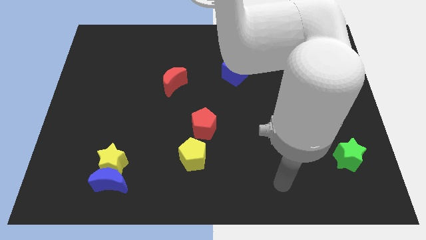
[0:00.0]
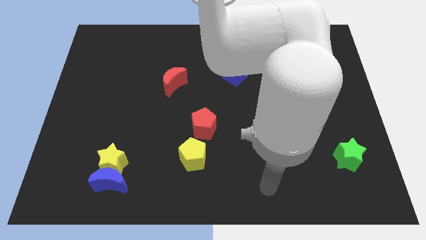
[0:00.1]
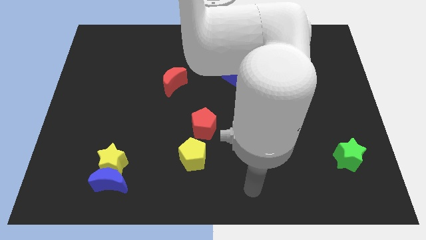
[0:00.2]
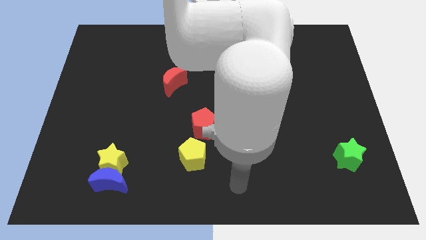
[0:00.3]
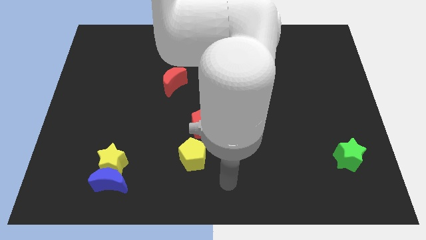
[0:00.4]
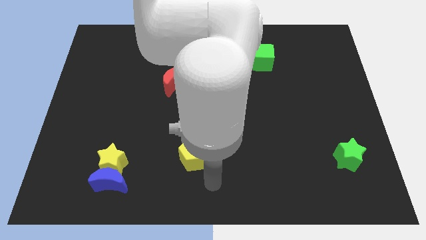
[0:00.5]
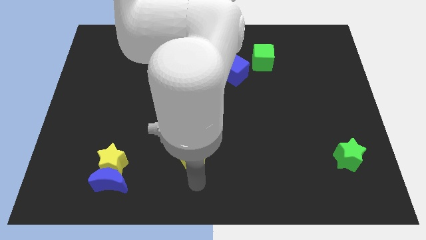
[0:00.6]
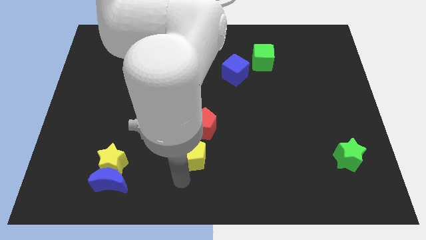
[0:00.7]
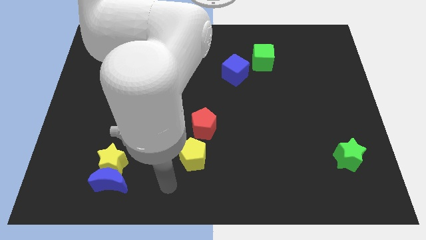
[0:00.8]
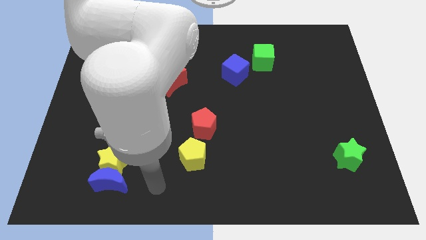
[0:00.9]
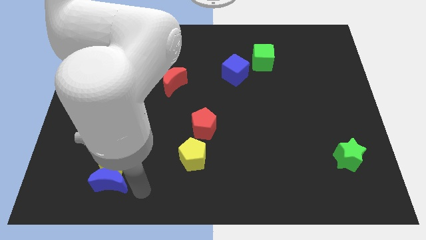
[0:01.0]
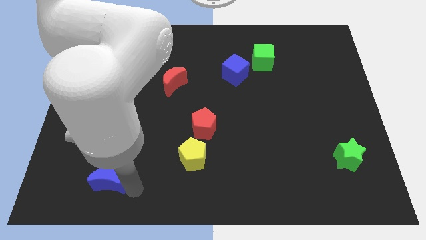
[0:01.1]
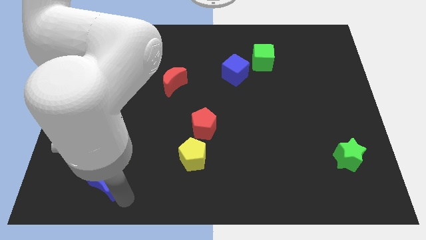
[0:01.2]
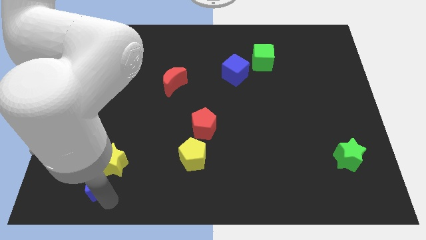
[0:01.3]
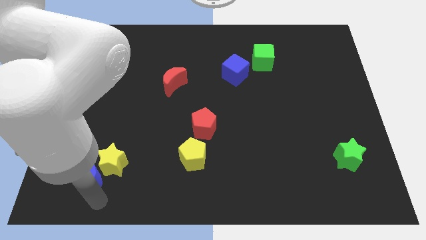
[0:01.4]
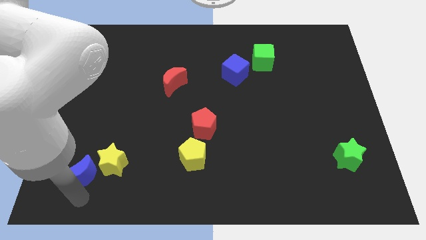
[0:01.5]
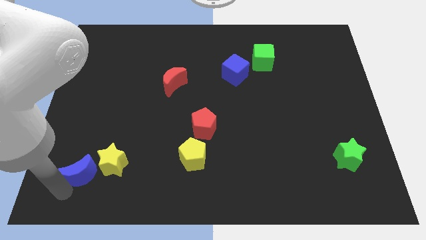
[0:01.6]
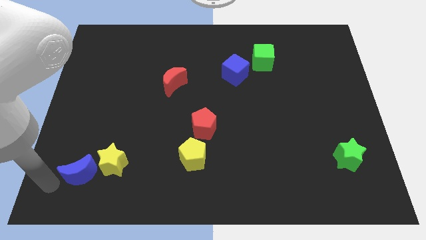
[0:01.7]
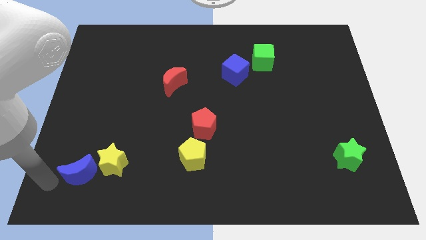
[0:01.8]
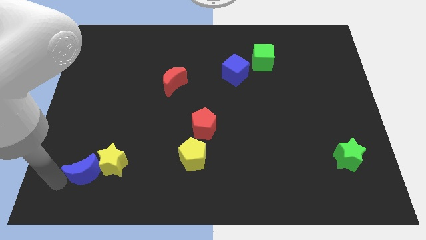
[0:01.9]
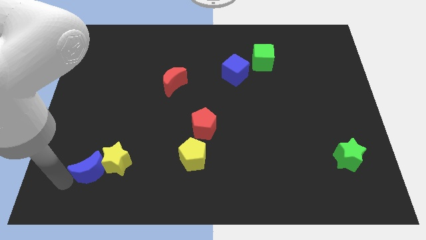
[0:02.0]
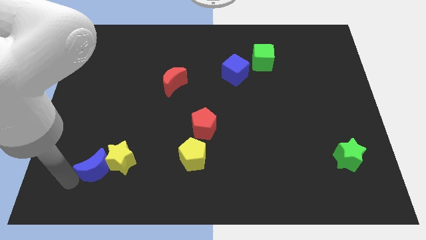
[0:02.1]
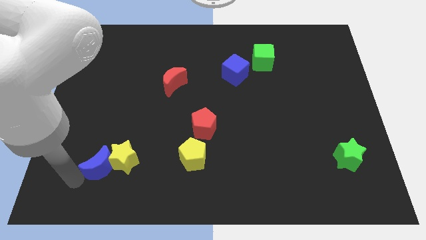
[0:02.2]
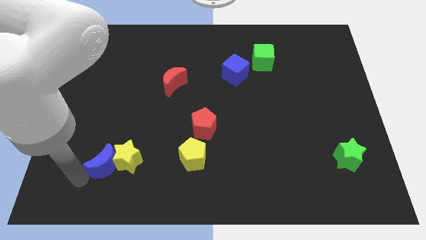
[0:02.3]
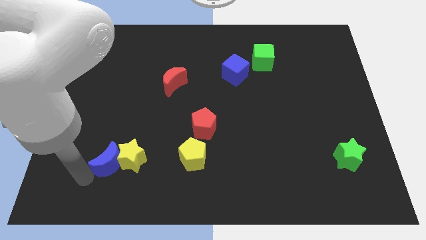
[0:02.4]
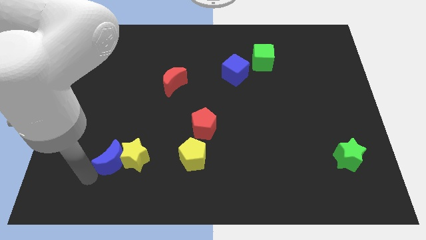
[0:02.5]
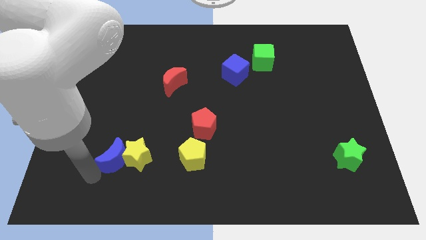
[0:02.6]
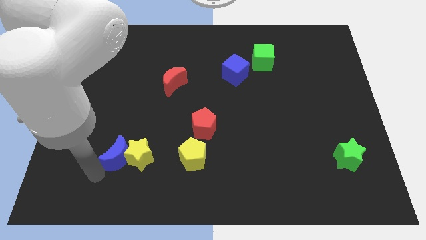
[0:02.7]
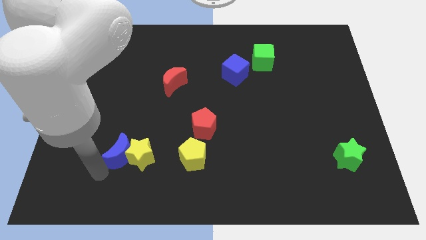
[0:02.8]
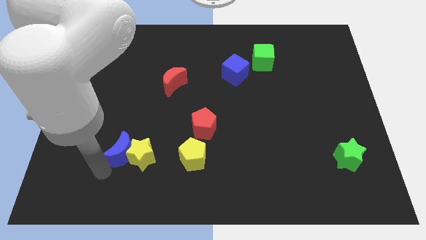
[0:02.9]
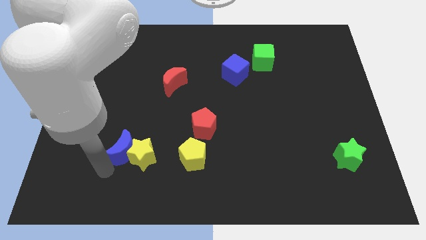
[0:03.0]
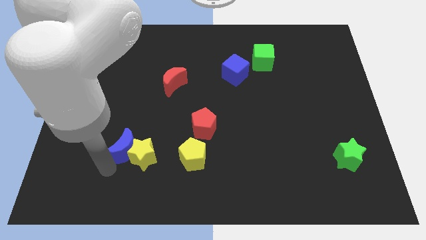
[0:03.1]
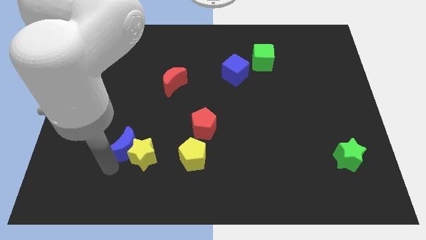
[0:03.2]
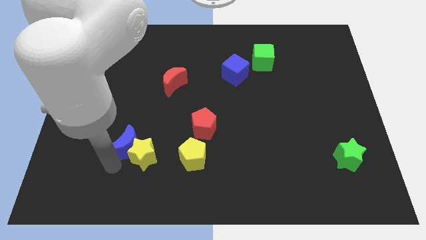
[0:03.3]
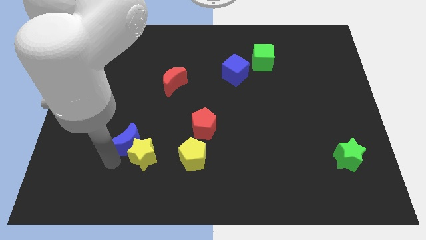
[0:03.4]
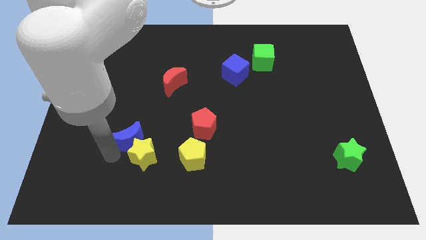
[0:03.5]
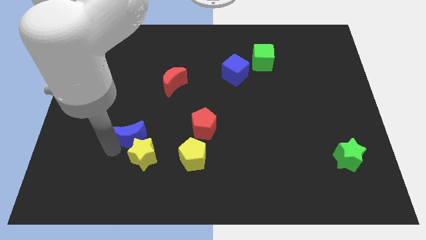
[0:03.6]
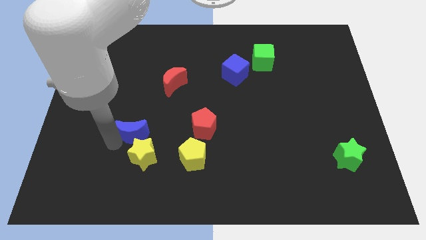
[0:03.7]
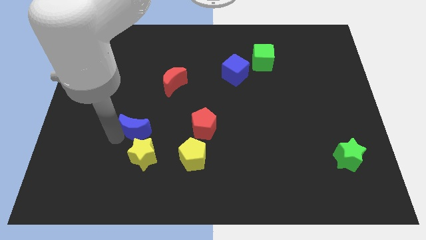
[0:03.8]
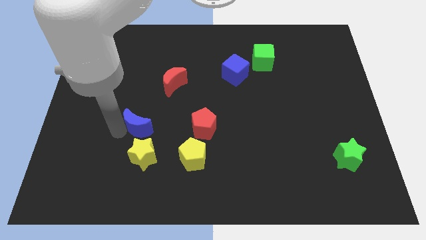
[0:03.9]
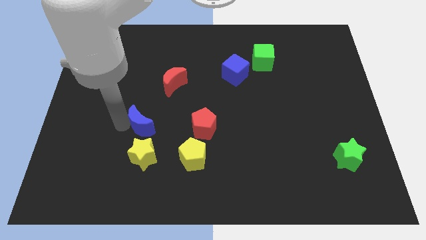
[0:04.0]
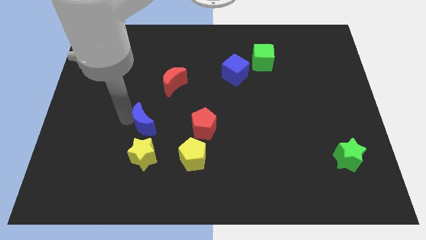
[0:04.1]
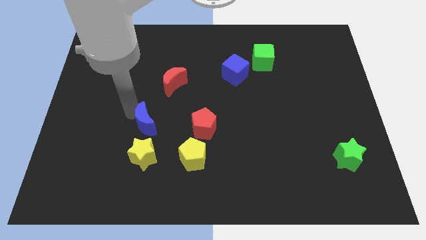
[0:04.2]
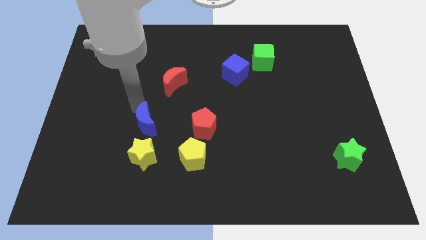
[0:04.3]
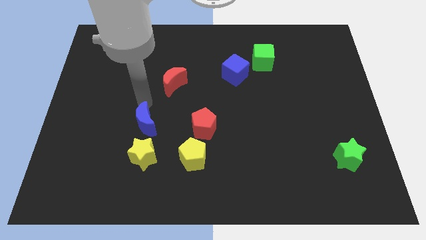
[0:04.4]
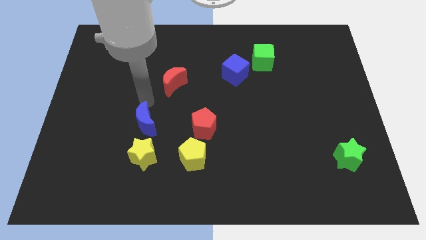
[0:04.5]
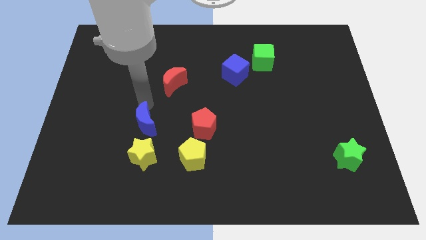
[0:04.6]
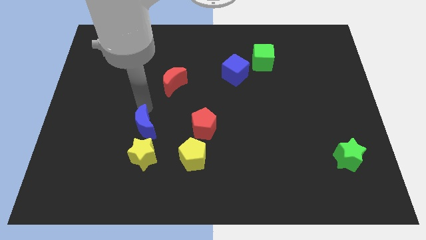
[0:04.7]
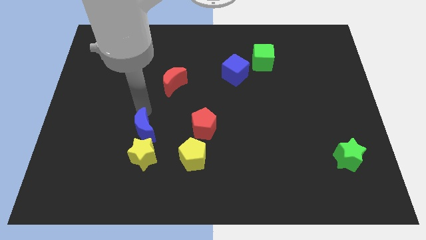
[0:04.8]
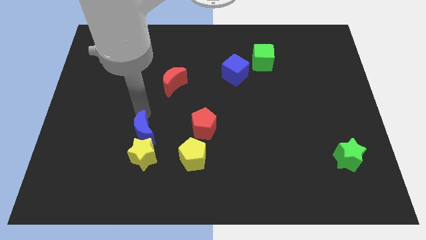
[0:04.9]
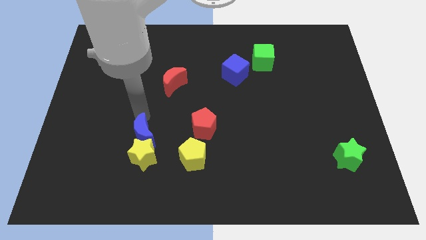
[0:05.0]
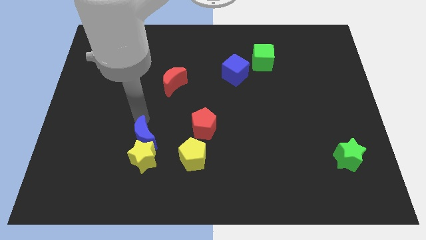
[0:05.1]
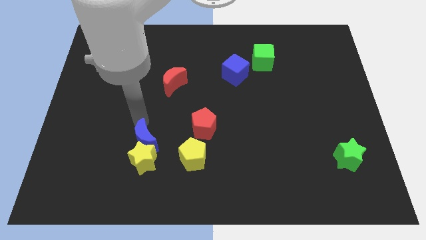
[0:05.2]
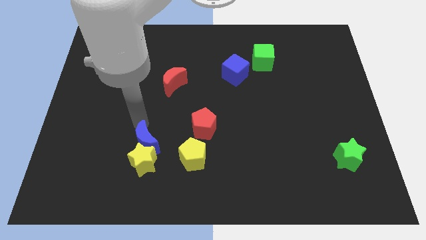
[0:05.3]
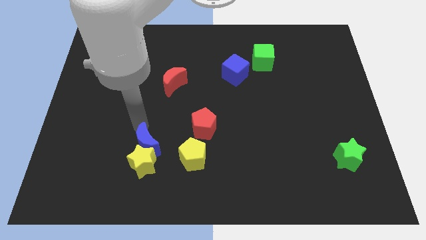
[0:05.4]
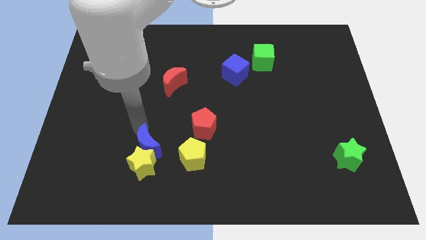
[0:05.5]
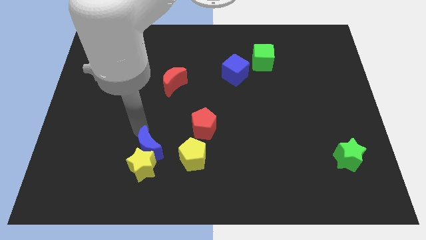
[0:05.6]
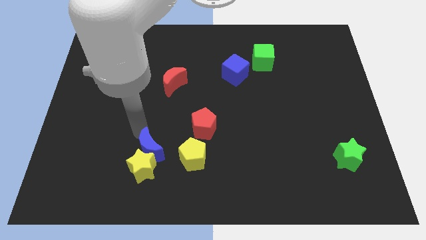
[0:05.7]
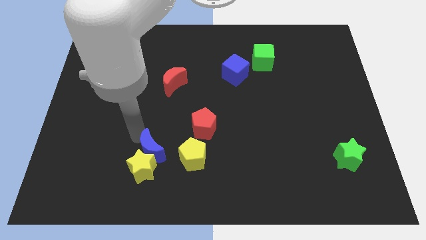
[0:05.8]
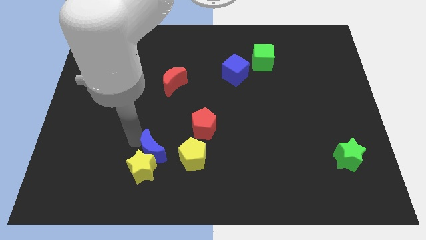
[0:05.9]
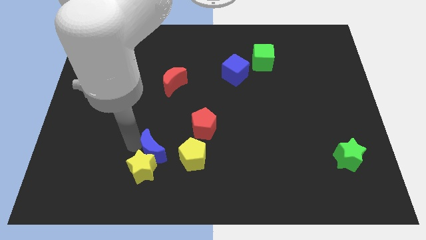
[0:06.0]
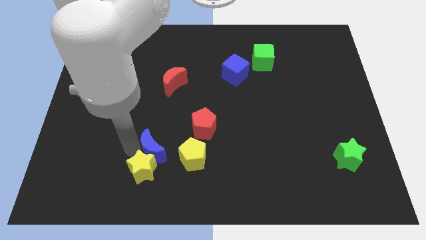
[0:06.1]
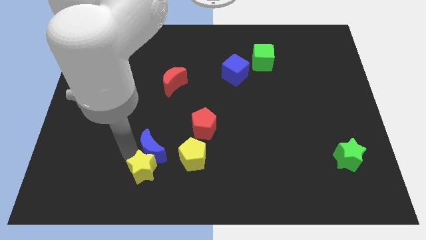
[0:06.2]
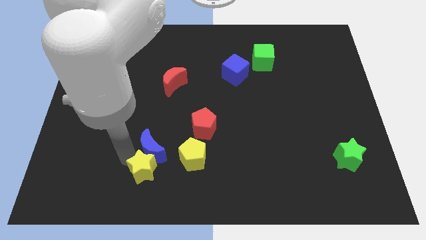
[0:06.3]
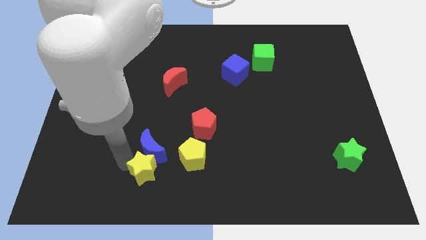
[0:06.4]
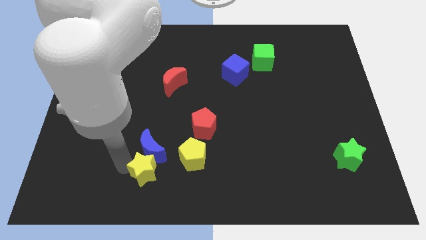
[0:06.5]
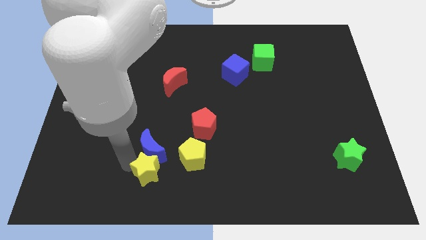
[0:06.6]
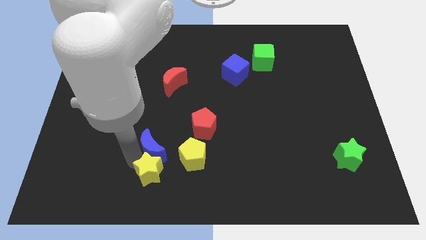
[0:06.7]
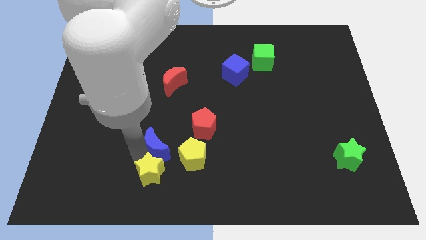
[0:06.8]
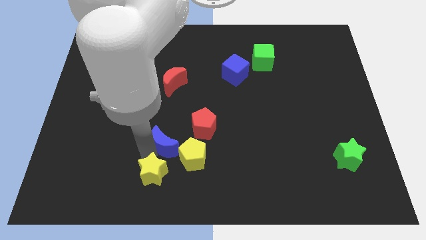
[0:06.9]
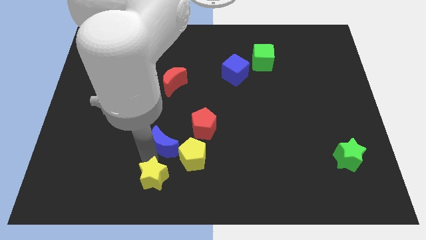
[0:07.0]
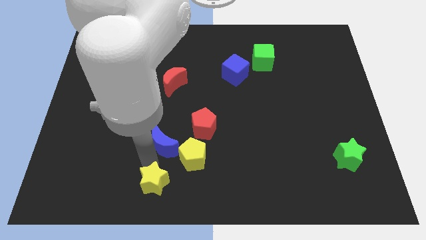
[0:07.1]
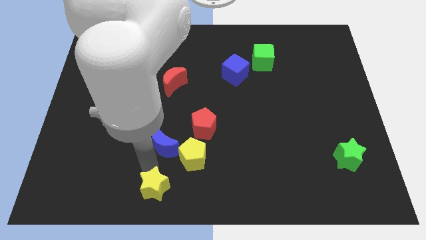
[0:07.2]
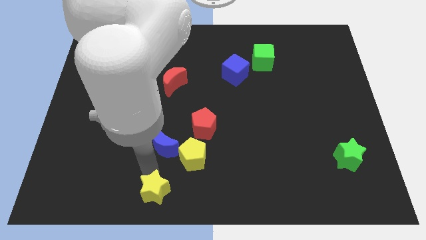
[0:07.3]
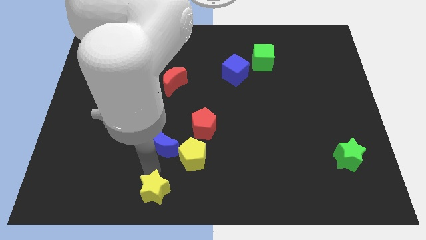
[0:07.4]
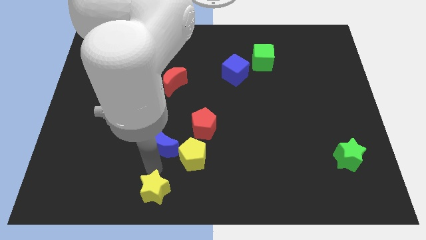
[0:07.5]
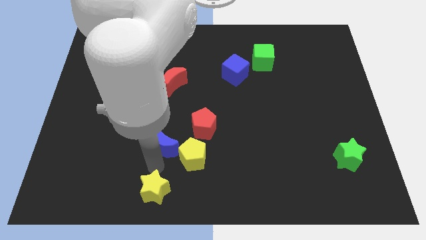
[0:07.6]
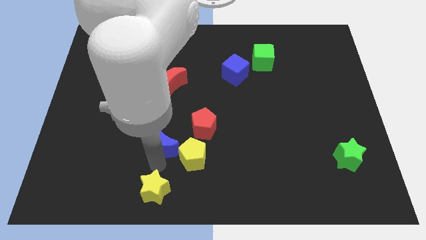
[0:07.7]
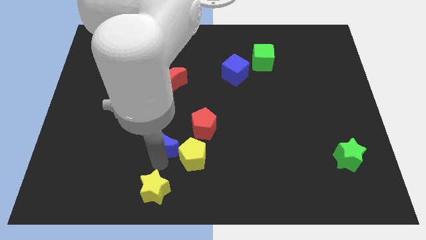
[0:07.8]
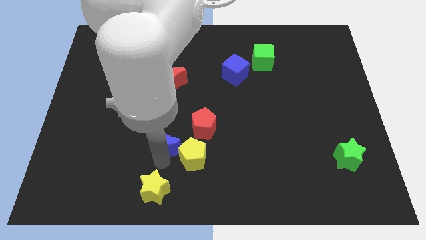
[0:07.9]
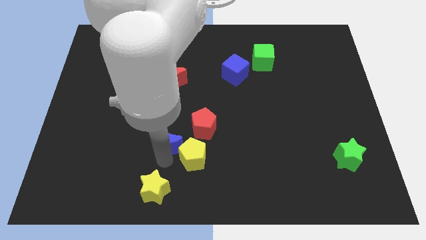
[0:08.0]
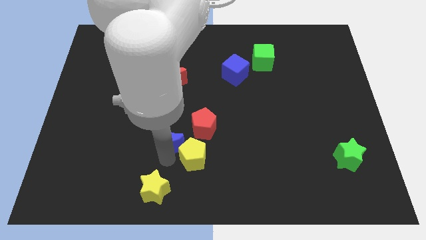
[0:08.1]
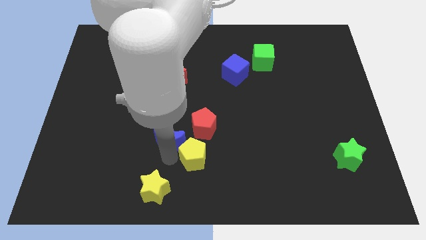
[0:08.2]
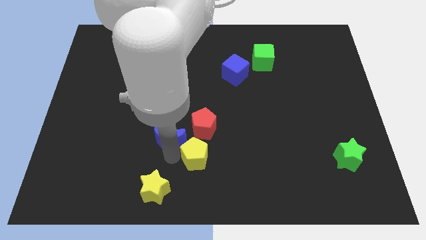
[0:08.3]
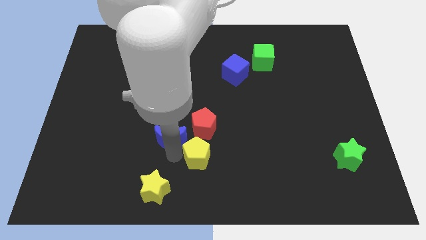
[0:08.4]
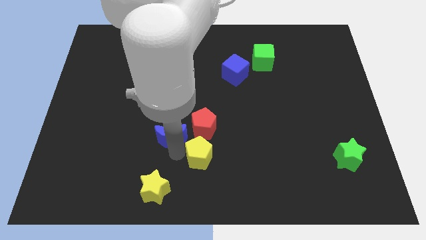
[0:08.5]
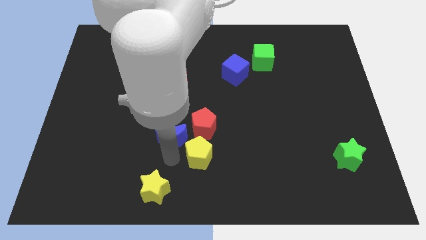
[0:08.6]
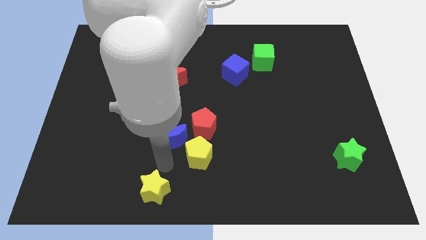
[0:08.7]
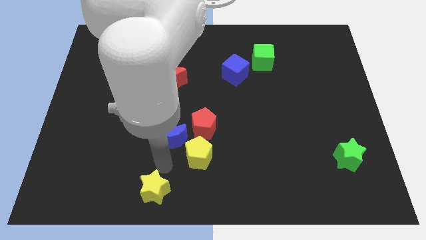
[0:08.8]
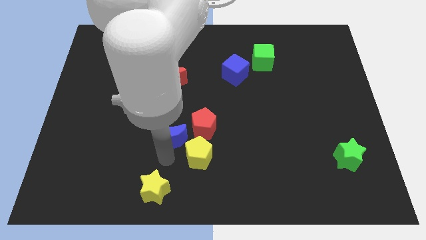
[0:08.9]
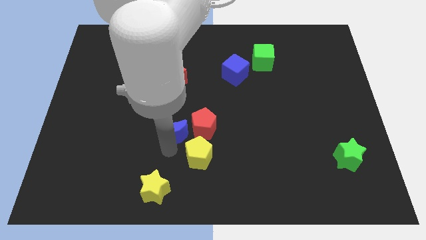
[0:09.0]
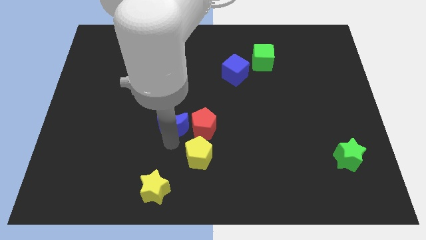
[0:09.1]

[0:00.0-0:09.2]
put the blue moon to the top left side of the red pentagon
